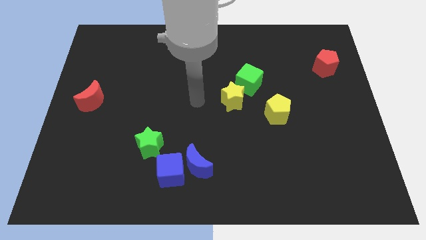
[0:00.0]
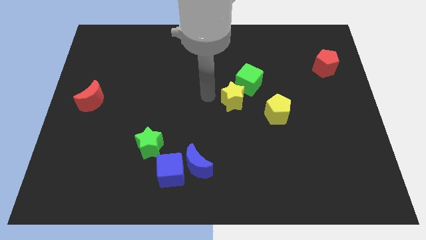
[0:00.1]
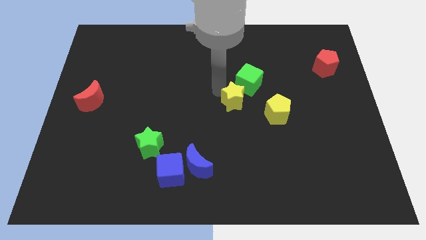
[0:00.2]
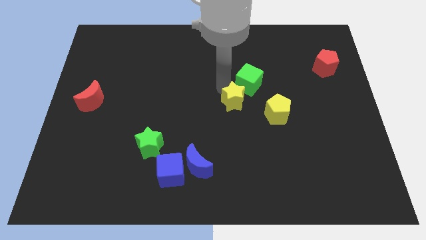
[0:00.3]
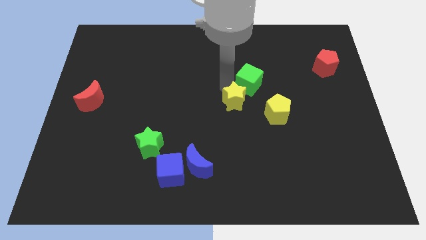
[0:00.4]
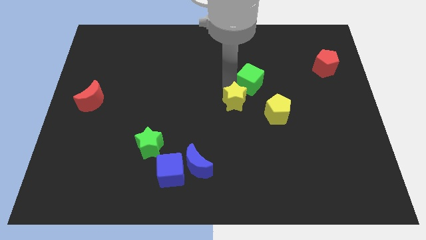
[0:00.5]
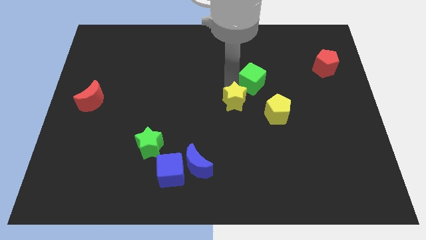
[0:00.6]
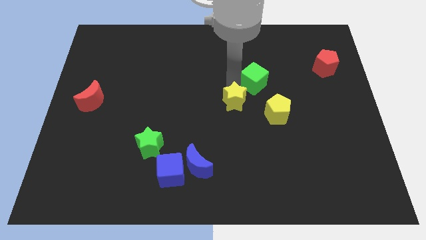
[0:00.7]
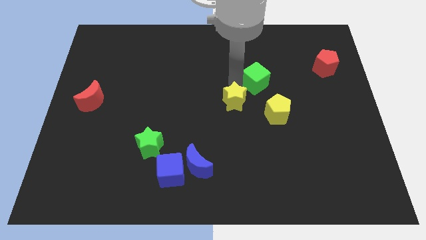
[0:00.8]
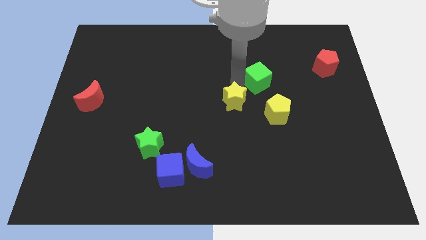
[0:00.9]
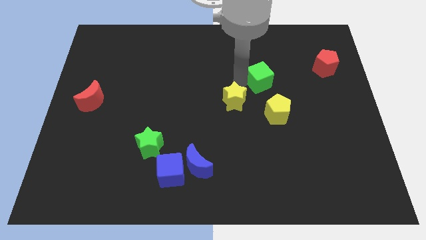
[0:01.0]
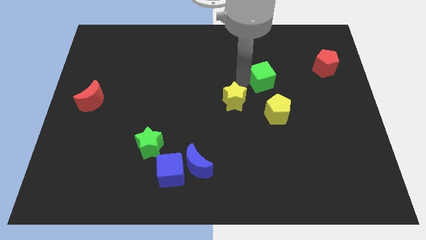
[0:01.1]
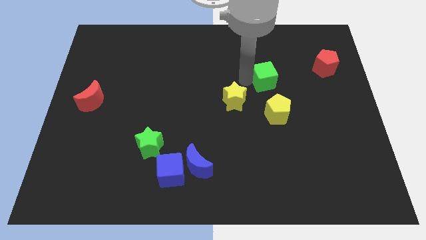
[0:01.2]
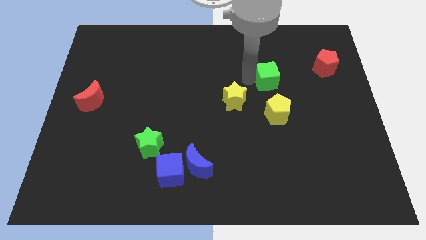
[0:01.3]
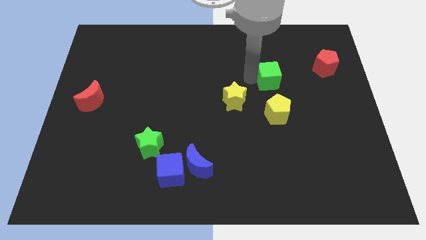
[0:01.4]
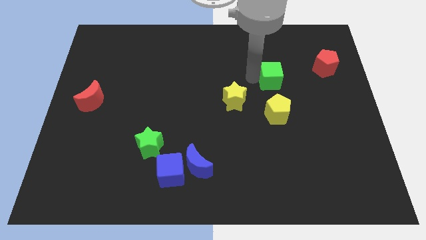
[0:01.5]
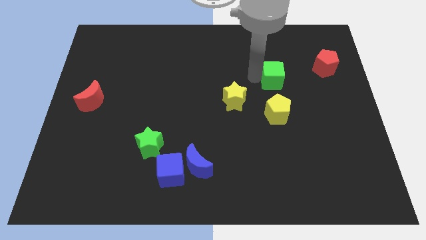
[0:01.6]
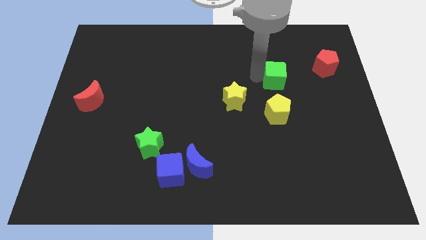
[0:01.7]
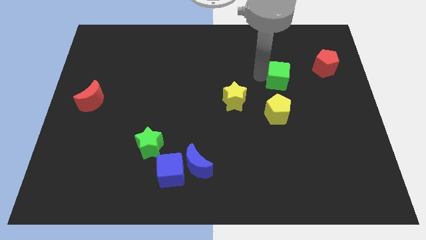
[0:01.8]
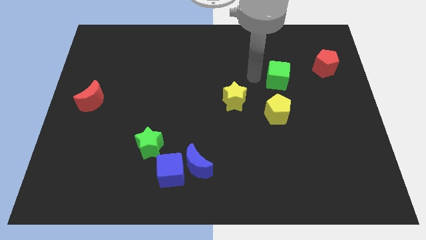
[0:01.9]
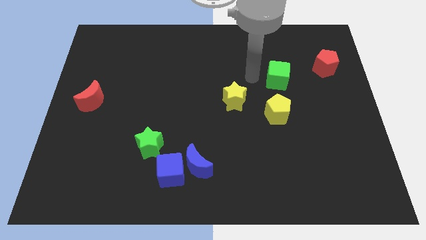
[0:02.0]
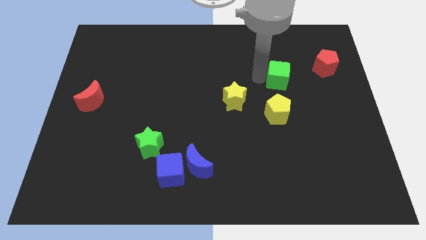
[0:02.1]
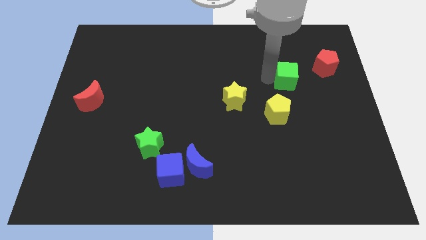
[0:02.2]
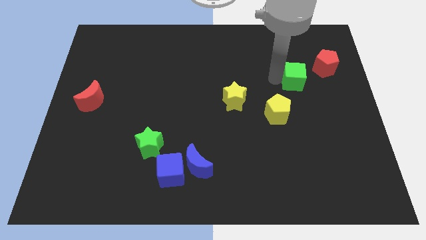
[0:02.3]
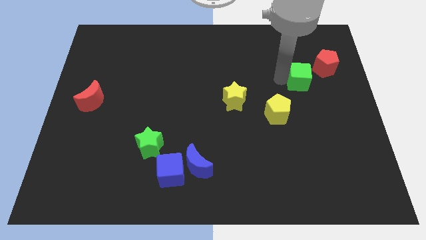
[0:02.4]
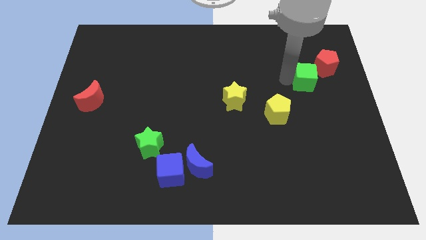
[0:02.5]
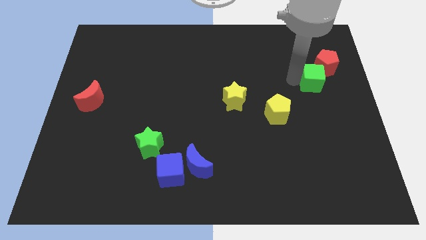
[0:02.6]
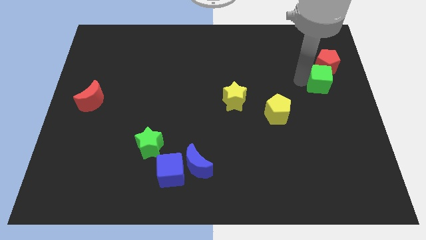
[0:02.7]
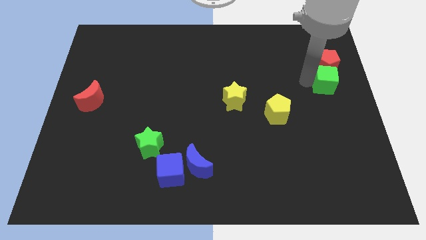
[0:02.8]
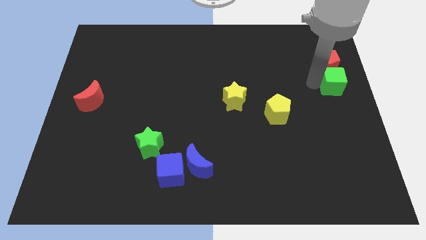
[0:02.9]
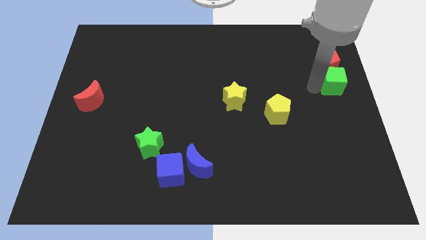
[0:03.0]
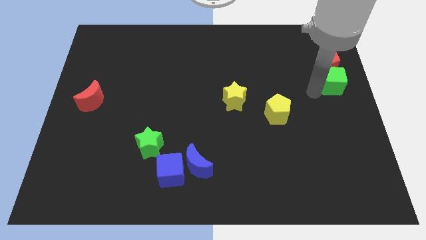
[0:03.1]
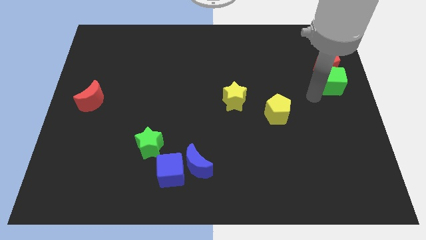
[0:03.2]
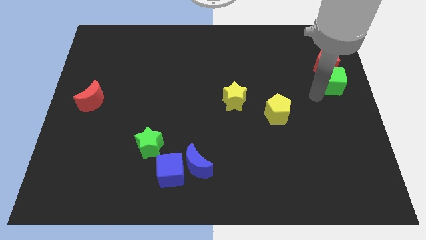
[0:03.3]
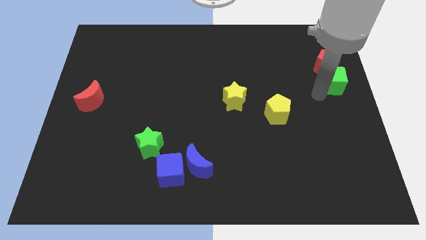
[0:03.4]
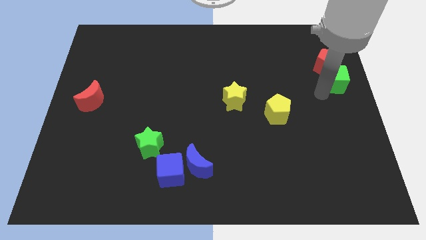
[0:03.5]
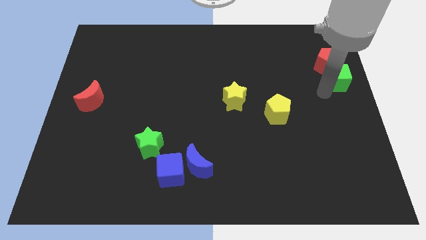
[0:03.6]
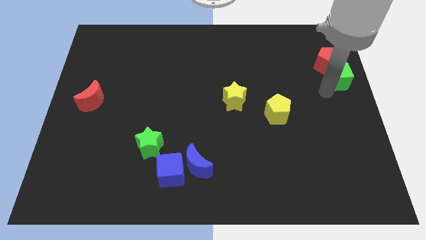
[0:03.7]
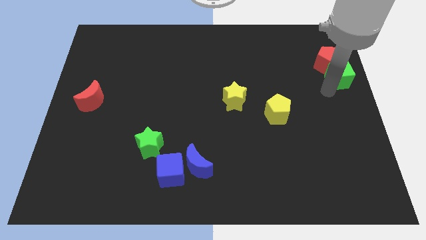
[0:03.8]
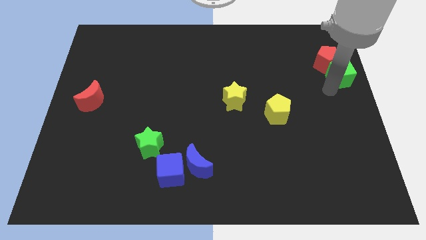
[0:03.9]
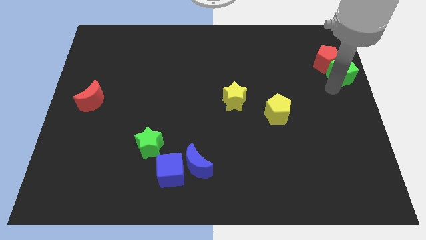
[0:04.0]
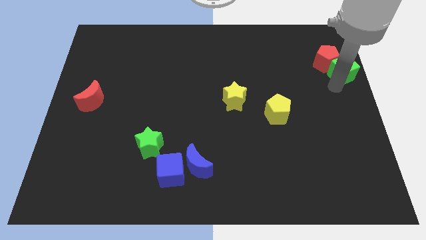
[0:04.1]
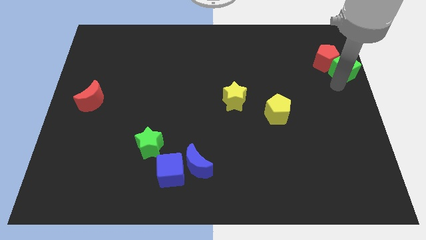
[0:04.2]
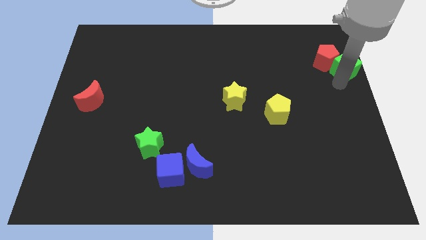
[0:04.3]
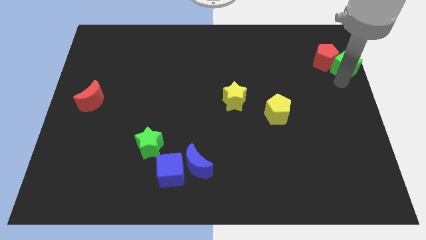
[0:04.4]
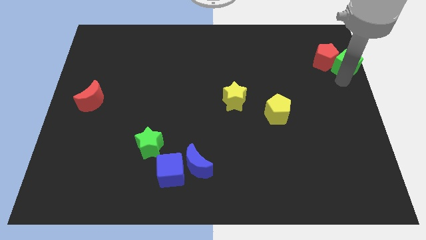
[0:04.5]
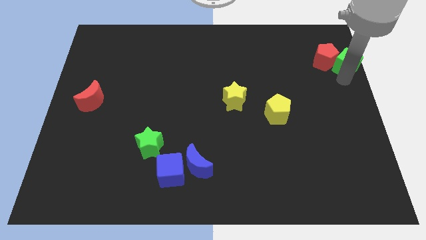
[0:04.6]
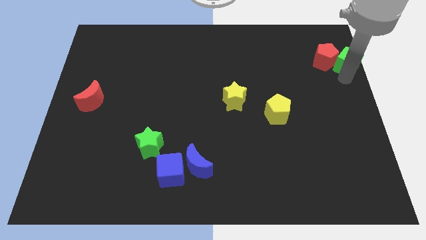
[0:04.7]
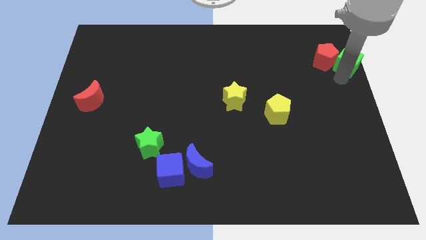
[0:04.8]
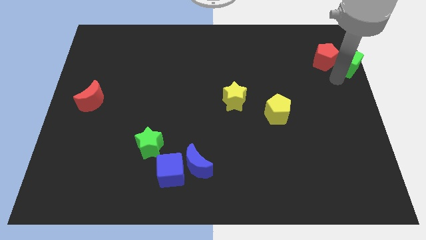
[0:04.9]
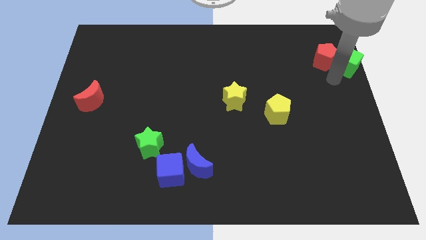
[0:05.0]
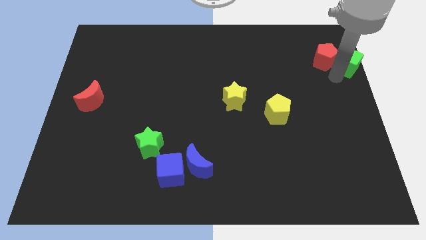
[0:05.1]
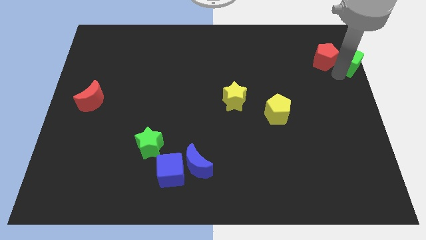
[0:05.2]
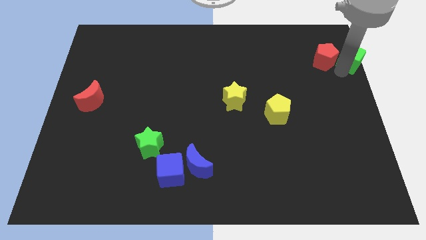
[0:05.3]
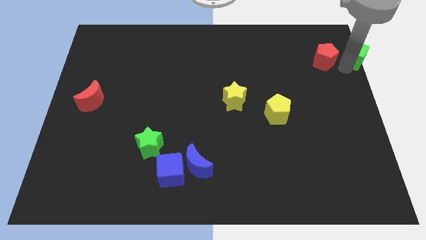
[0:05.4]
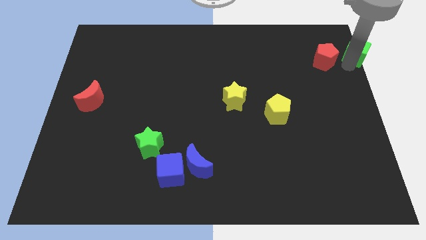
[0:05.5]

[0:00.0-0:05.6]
push the green cube to the top right corner

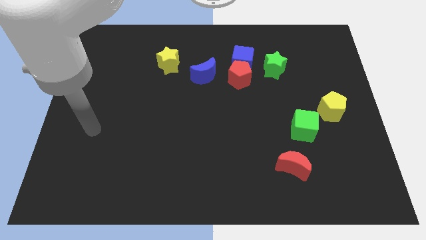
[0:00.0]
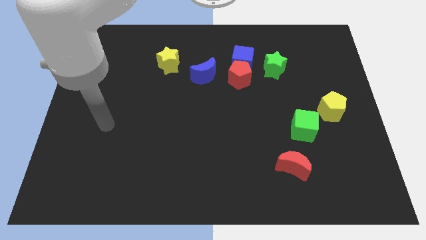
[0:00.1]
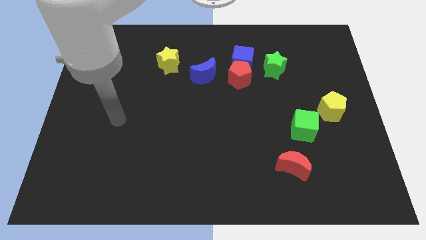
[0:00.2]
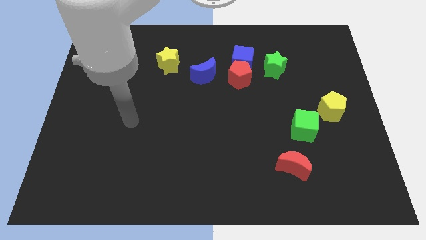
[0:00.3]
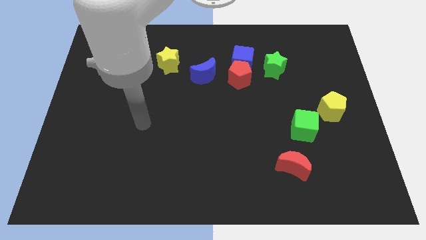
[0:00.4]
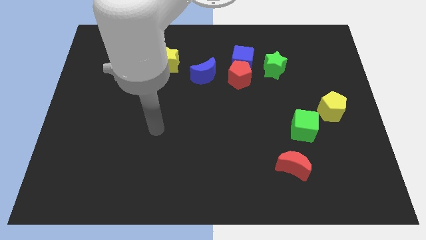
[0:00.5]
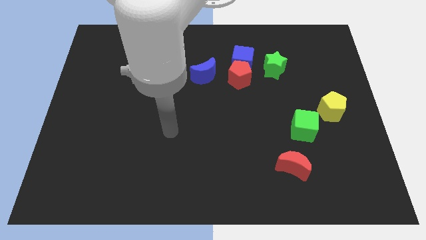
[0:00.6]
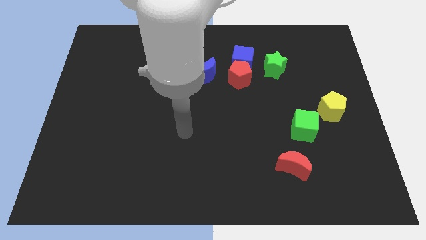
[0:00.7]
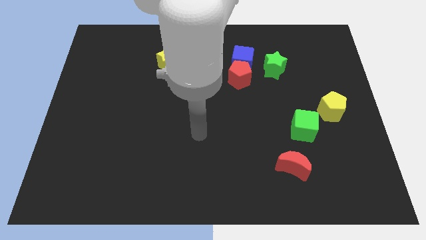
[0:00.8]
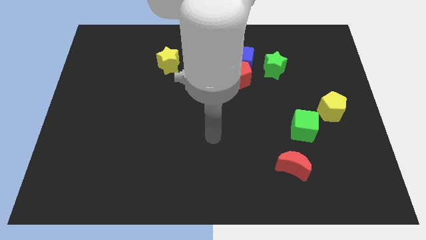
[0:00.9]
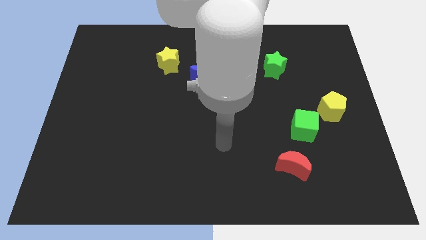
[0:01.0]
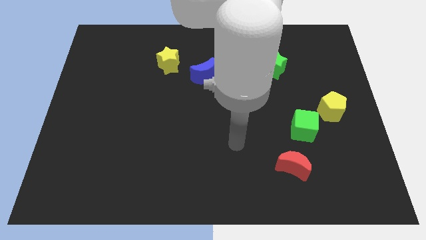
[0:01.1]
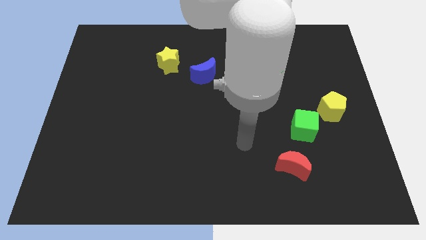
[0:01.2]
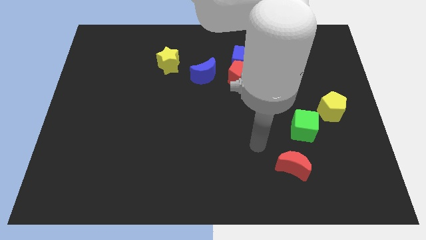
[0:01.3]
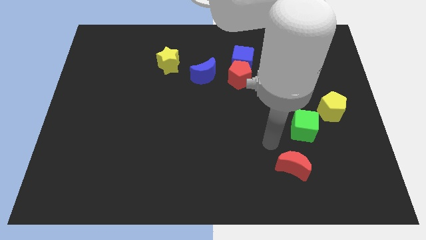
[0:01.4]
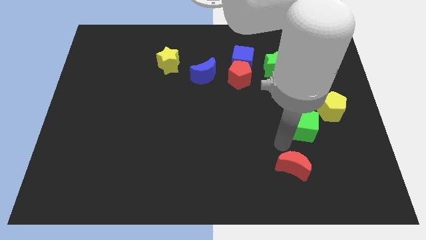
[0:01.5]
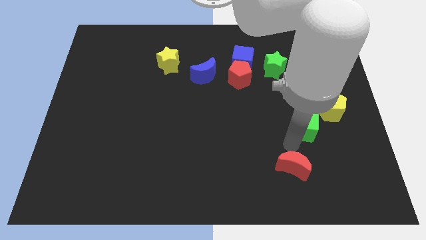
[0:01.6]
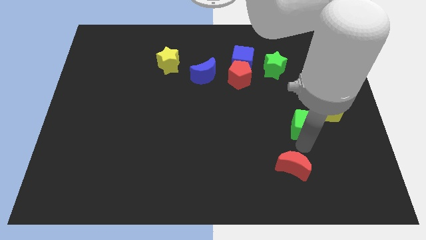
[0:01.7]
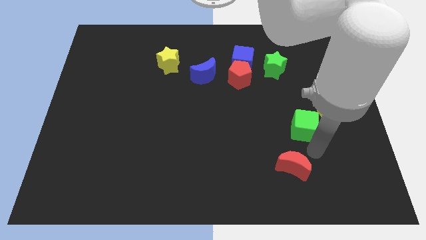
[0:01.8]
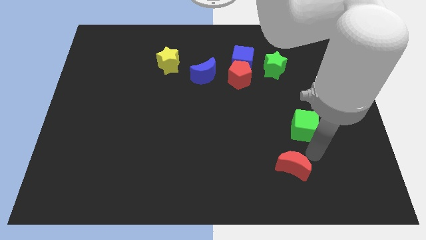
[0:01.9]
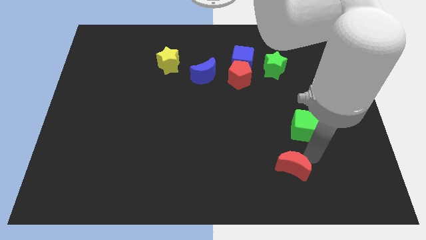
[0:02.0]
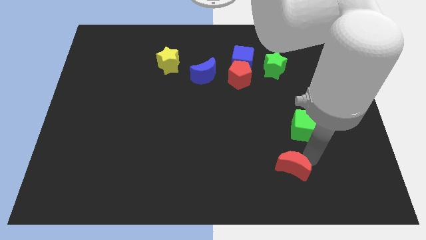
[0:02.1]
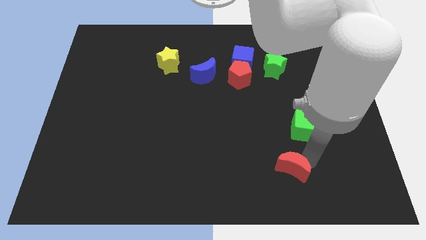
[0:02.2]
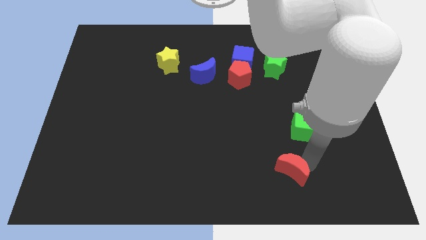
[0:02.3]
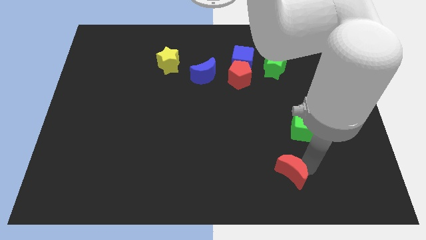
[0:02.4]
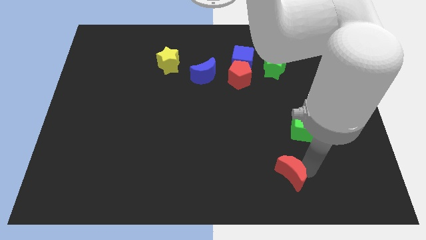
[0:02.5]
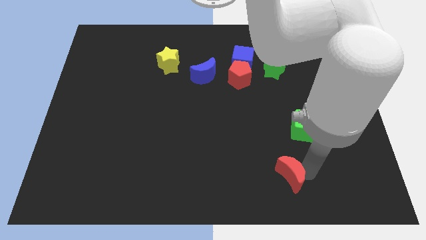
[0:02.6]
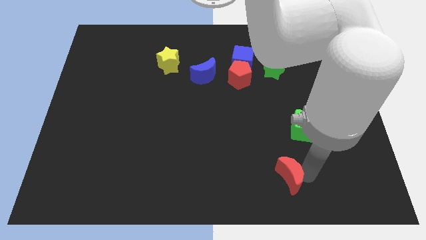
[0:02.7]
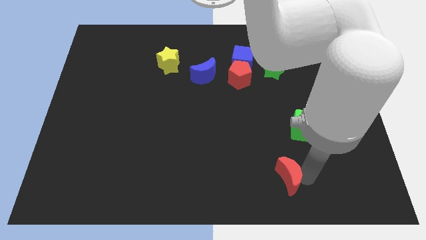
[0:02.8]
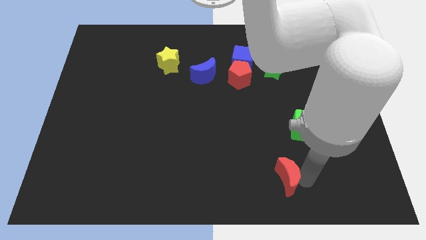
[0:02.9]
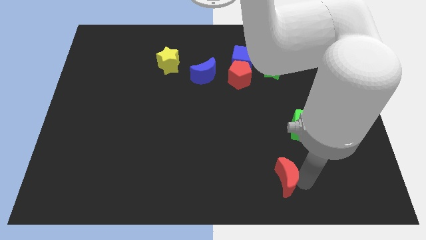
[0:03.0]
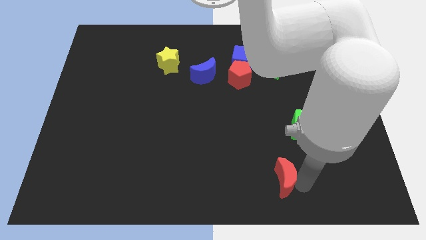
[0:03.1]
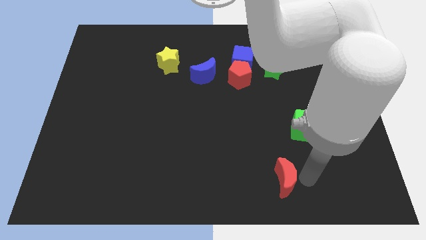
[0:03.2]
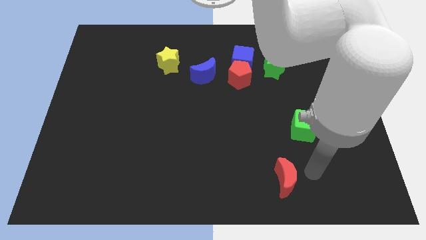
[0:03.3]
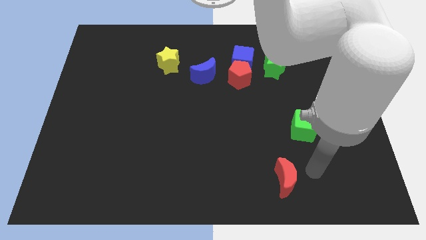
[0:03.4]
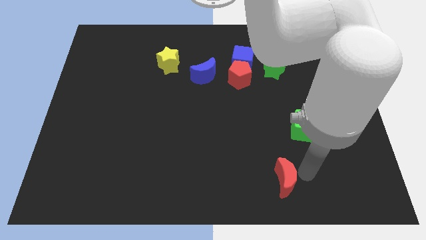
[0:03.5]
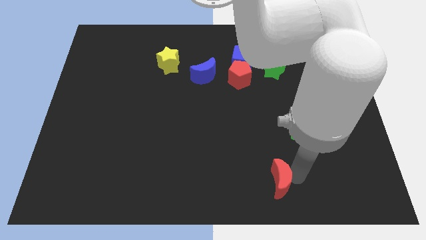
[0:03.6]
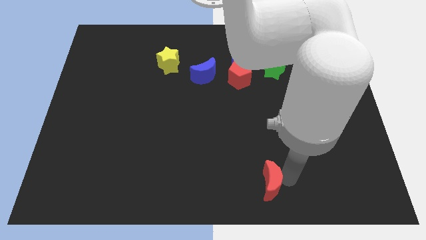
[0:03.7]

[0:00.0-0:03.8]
put the red moon to the bottom
